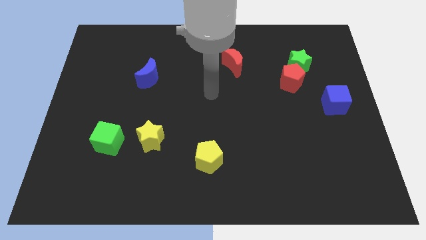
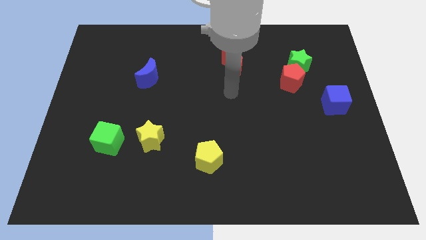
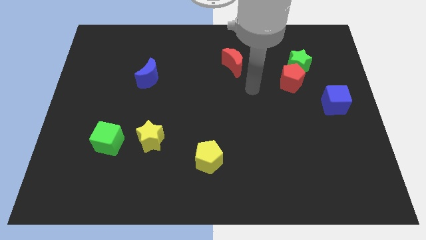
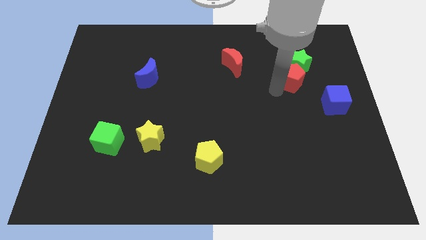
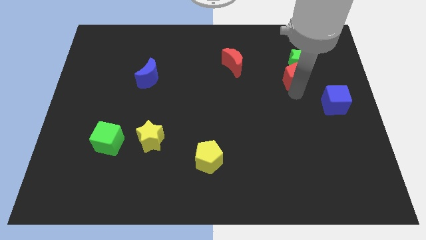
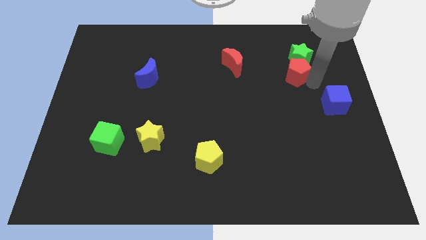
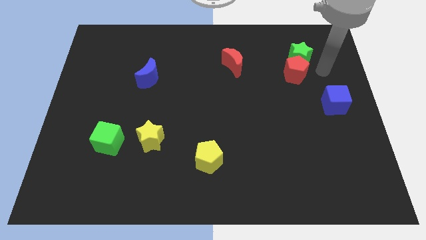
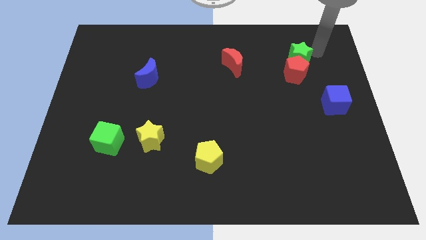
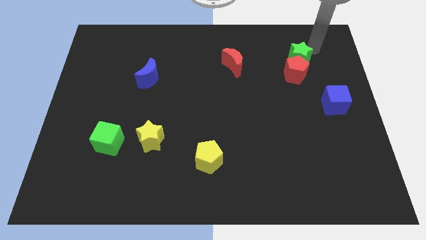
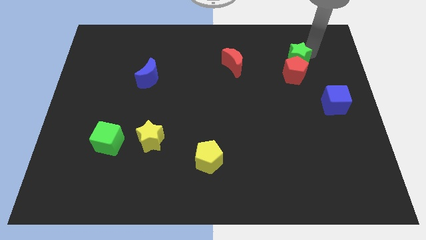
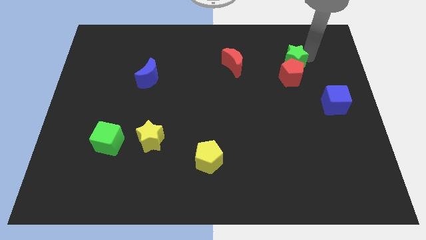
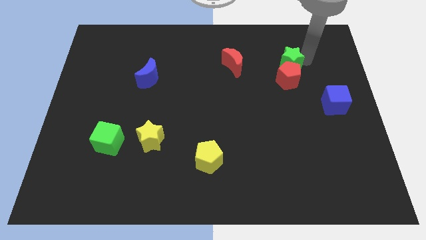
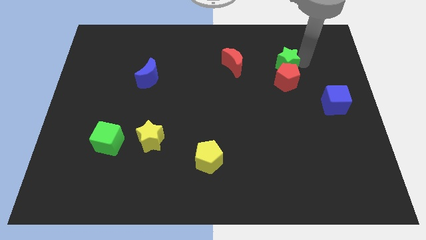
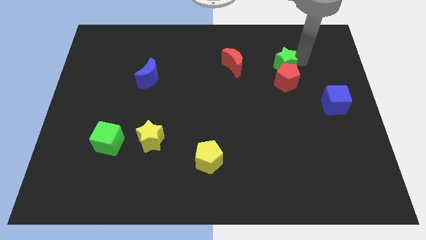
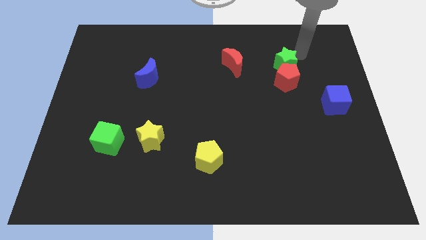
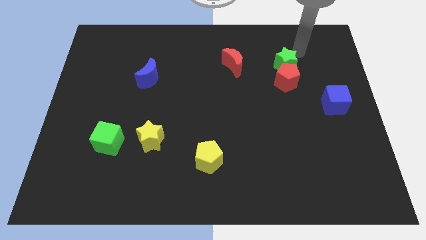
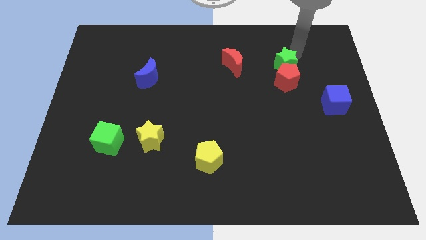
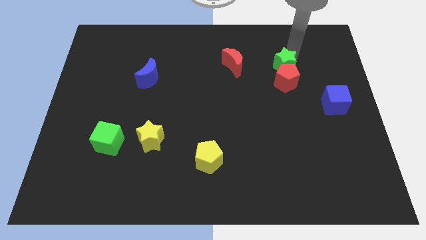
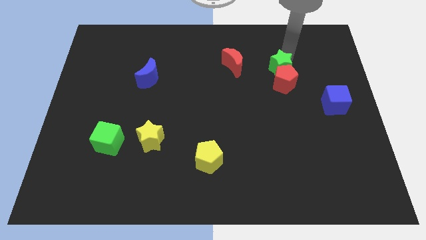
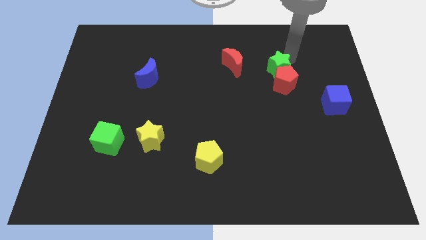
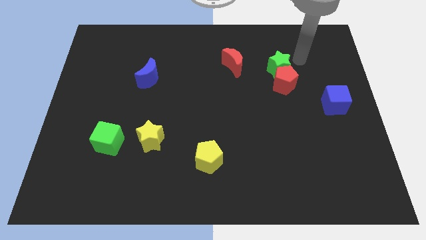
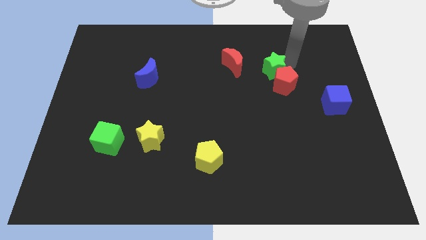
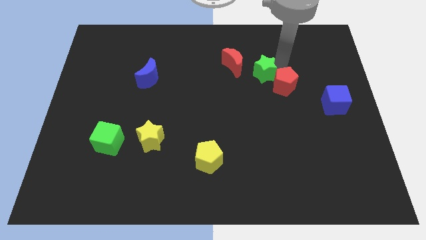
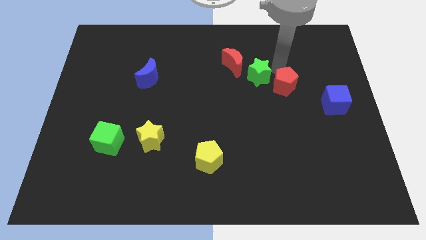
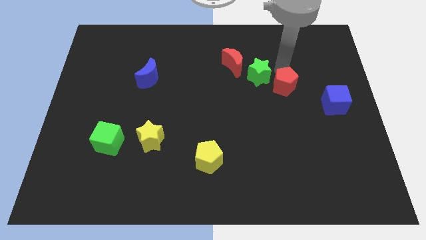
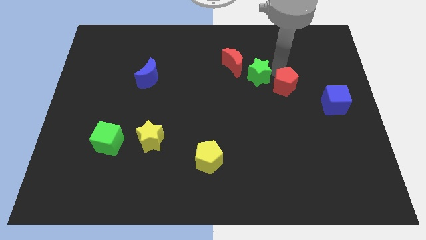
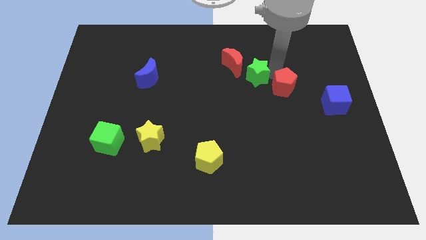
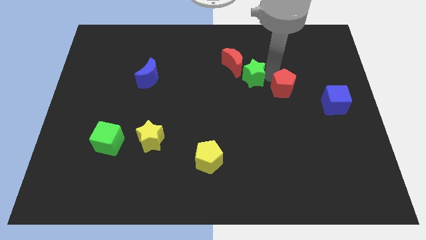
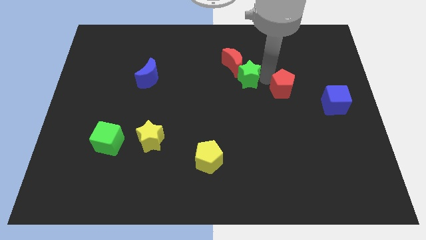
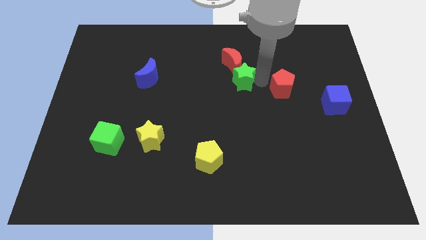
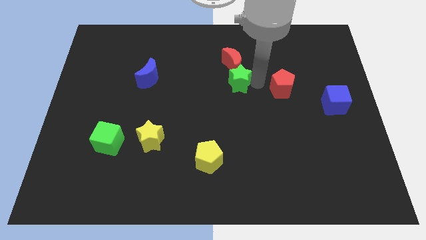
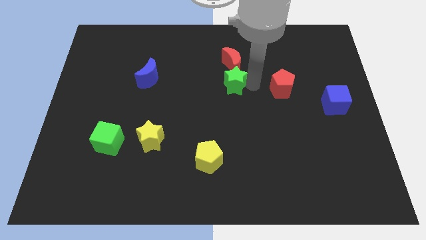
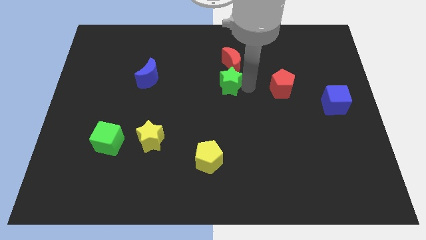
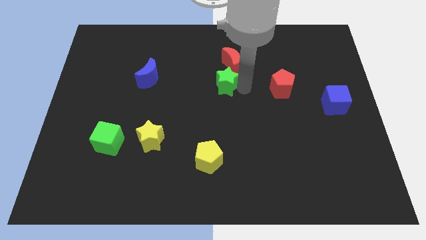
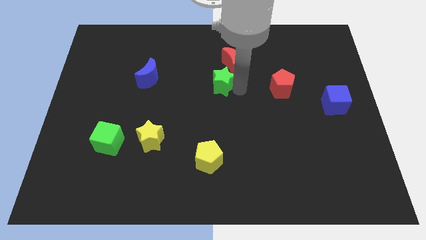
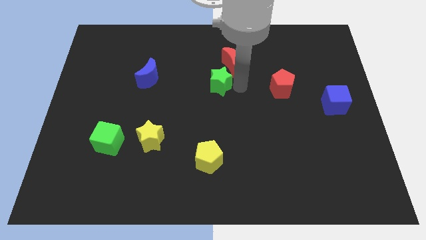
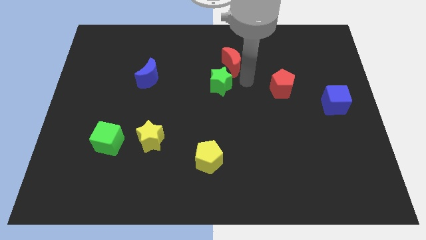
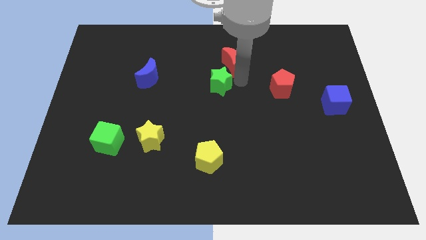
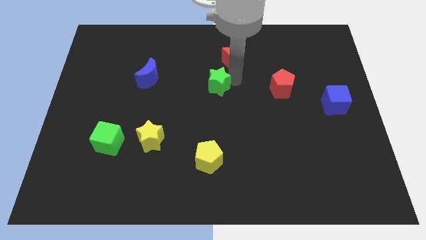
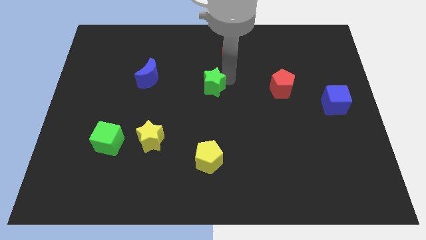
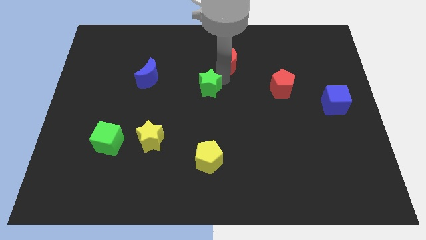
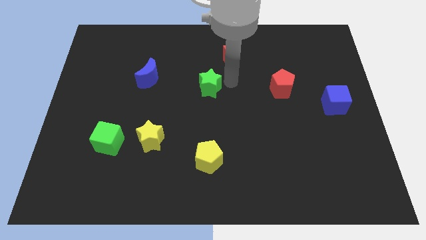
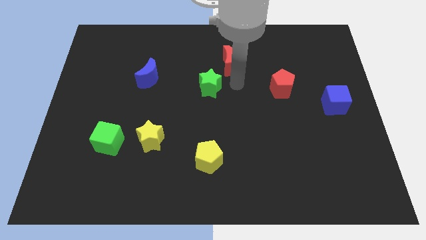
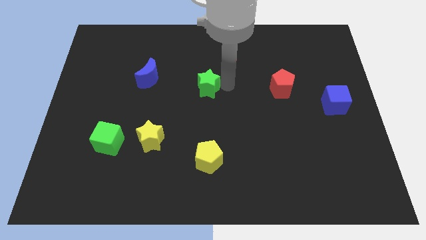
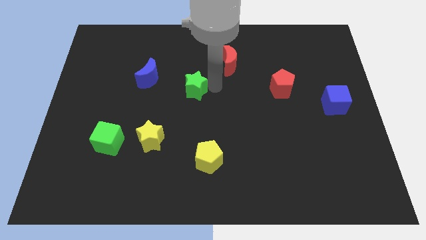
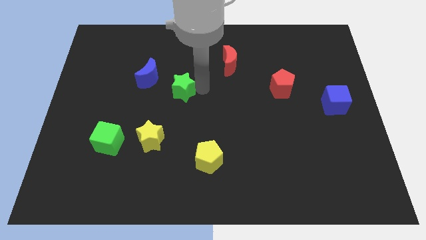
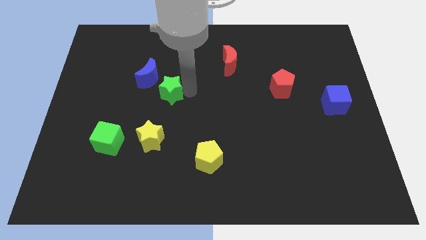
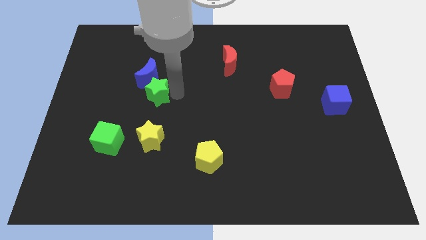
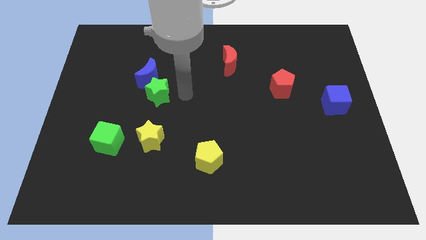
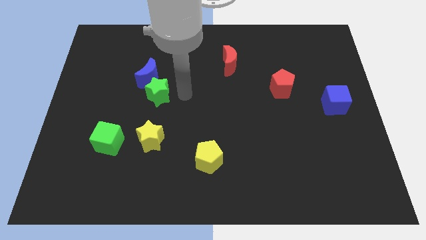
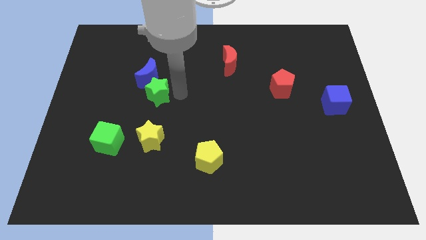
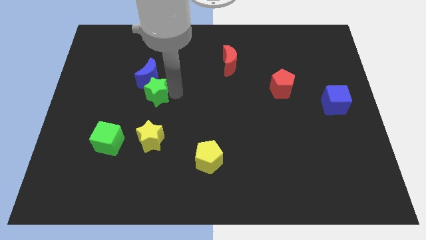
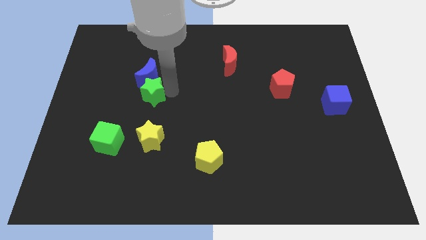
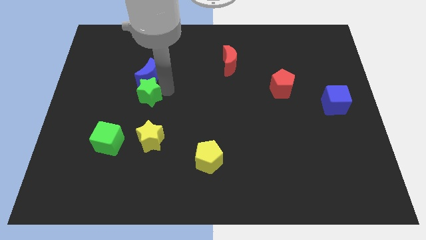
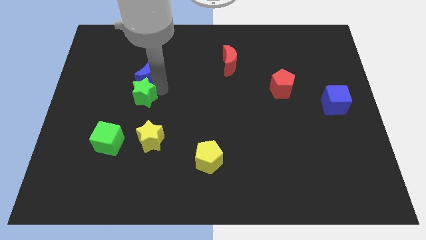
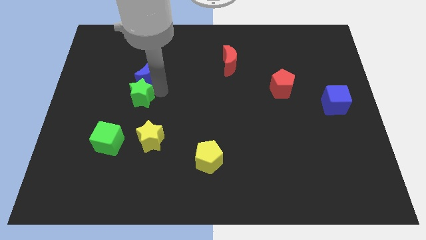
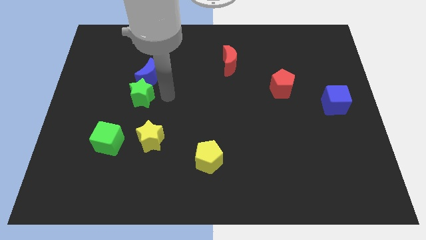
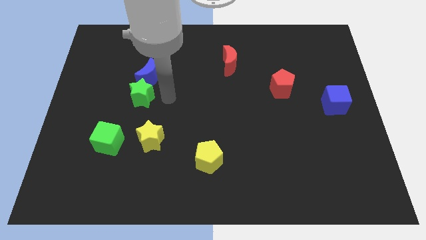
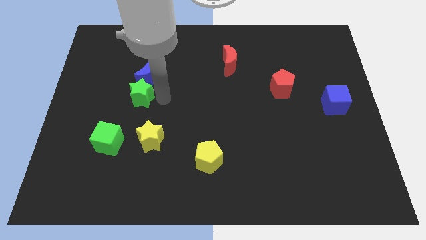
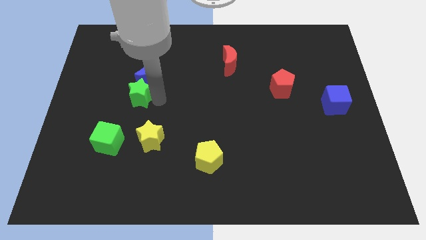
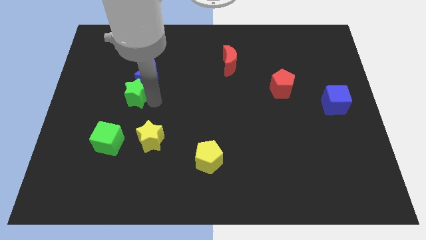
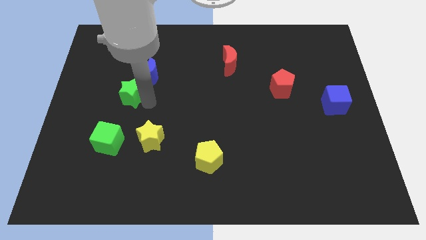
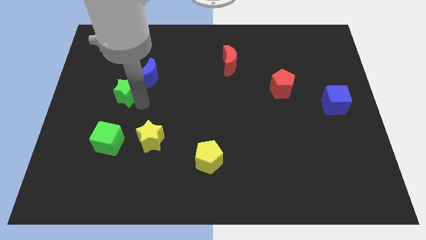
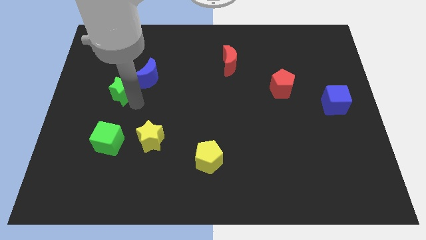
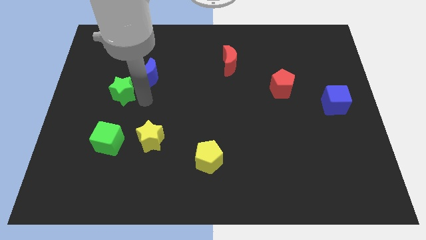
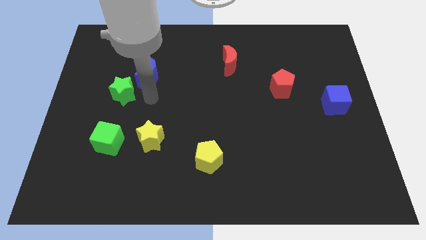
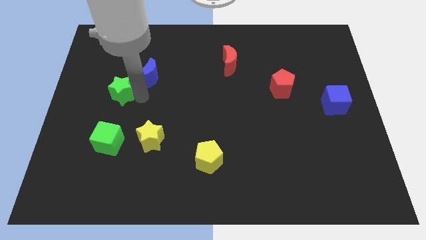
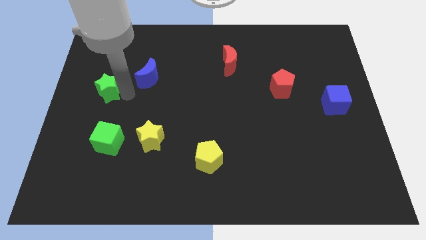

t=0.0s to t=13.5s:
put the green star to the left side of the board
